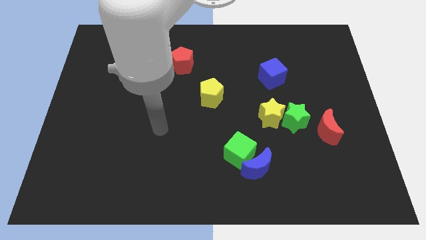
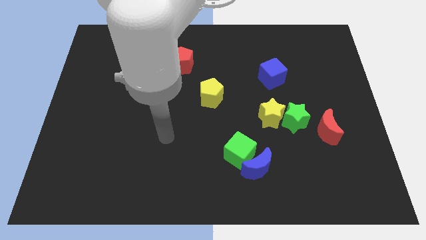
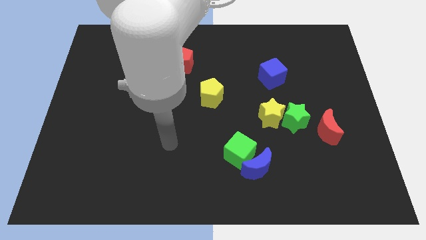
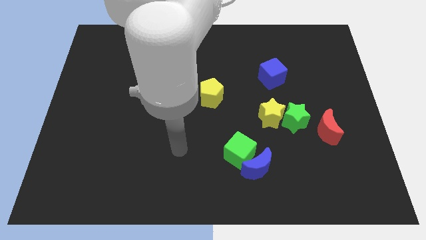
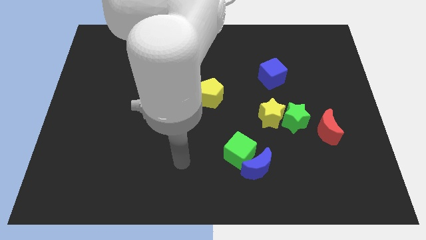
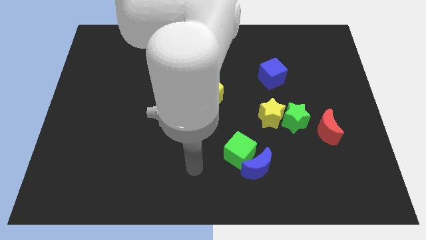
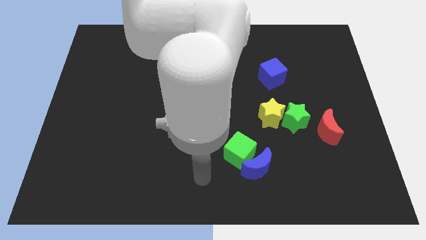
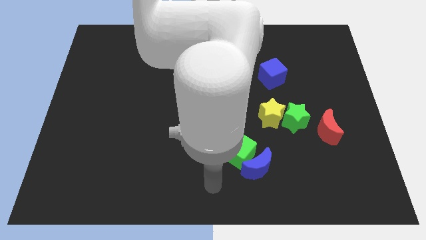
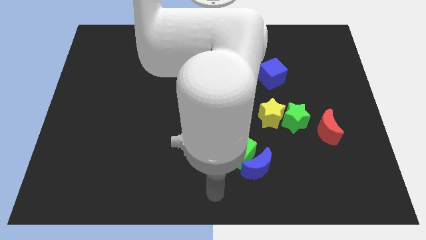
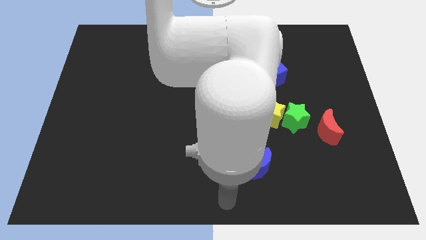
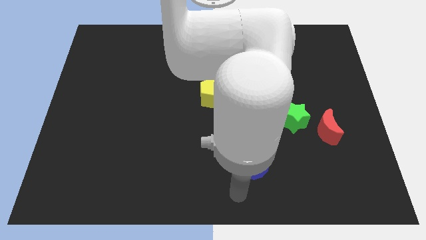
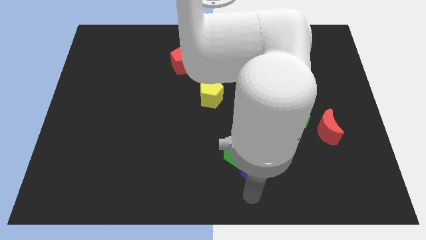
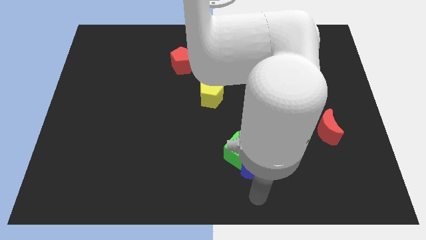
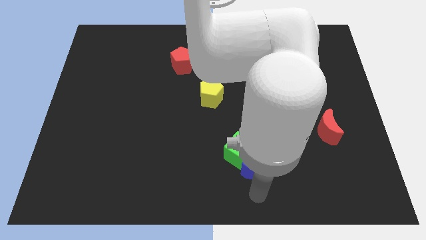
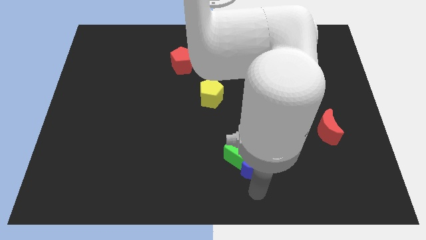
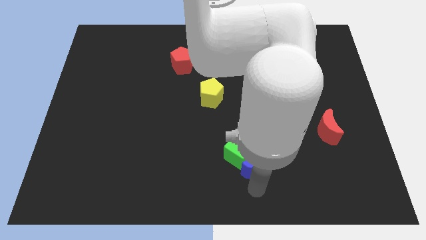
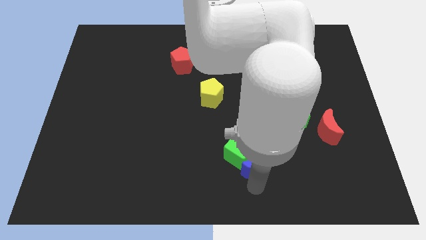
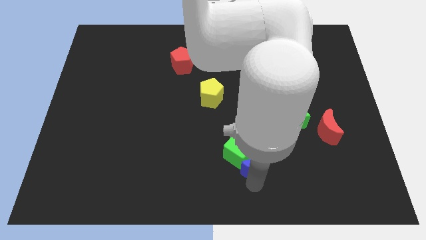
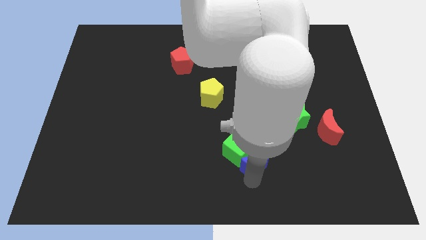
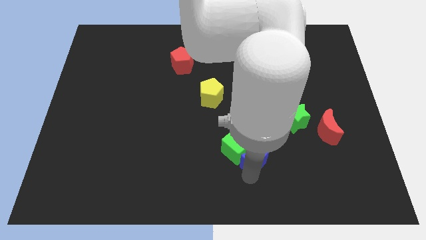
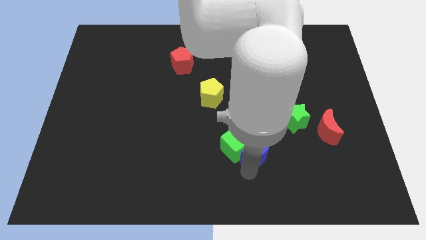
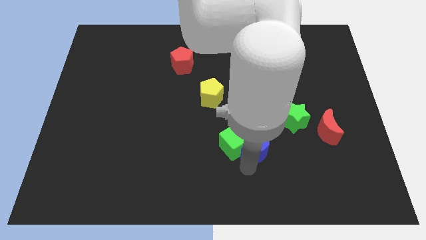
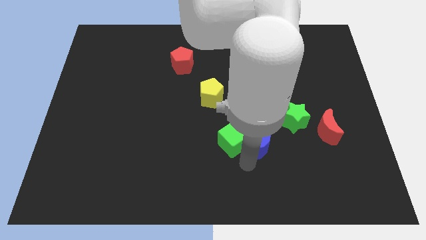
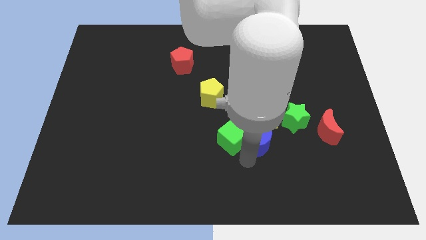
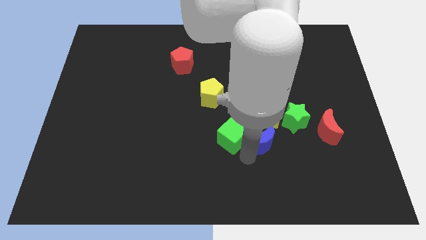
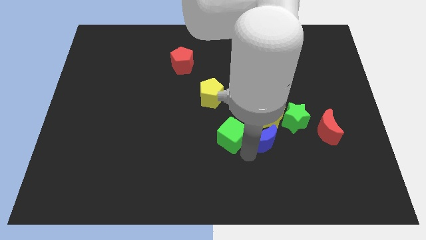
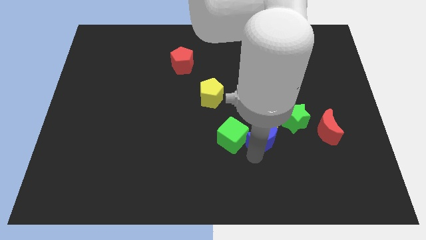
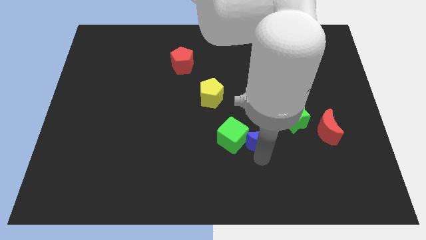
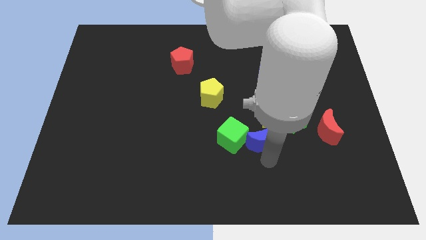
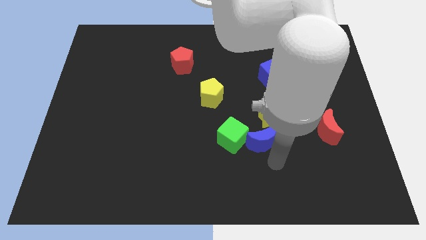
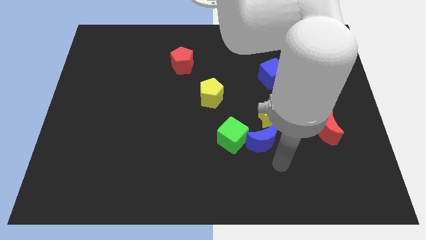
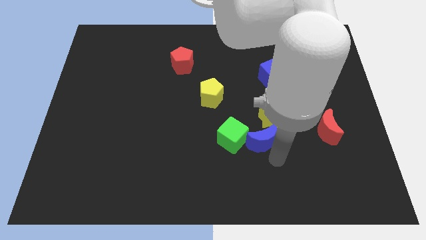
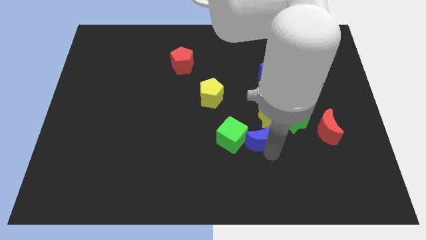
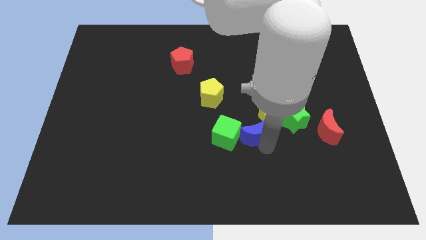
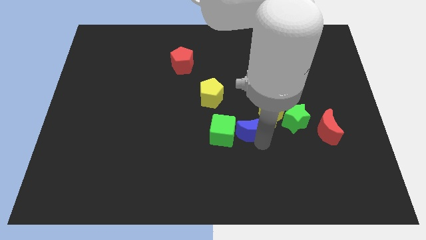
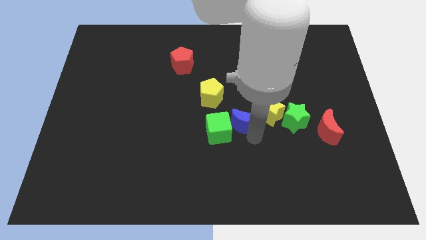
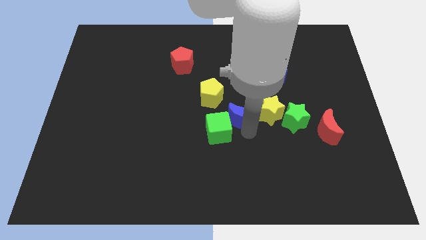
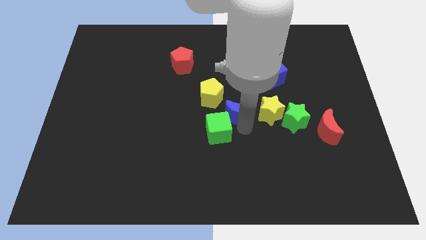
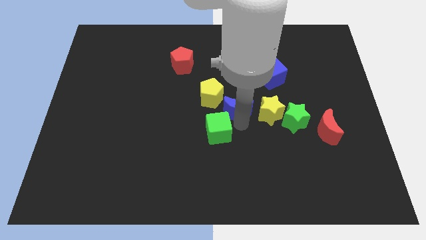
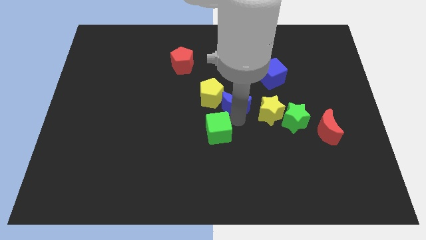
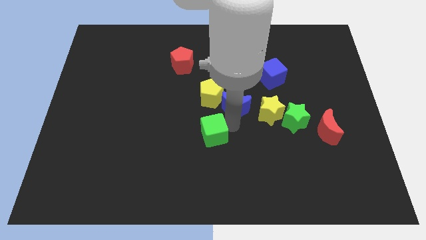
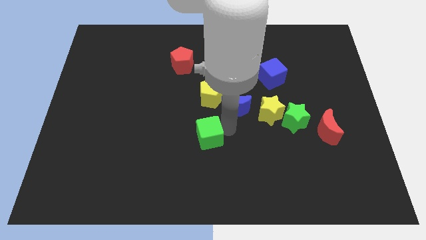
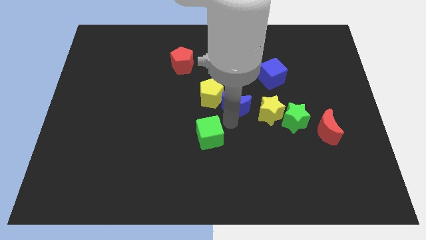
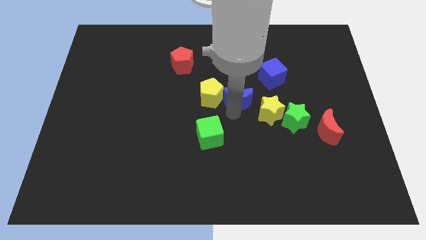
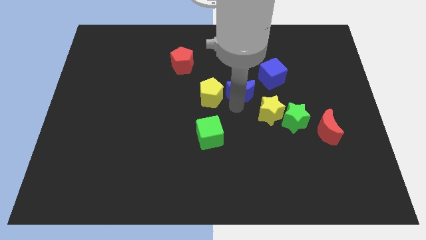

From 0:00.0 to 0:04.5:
slide the blue moon upwards

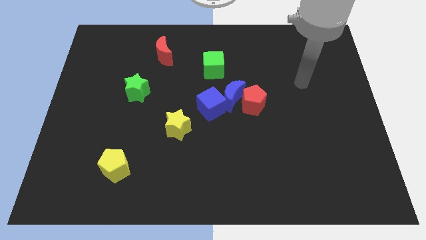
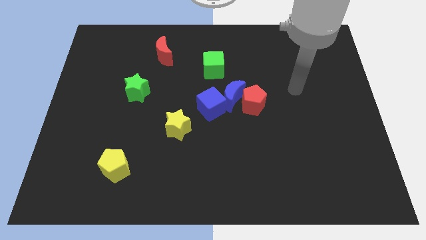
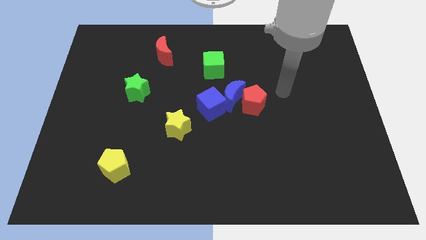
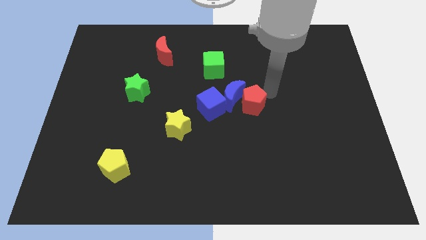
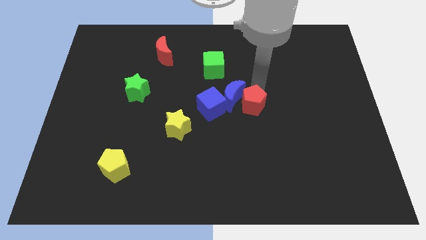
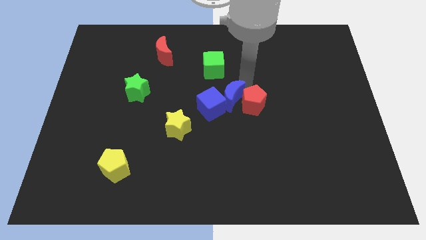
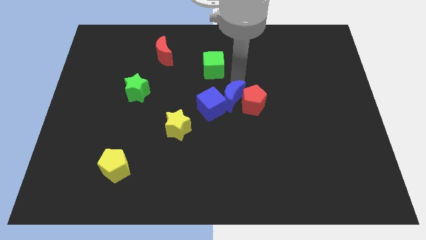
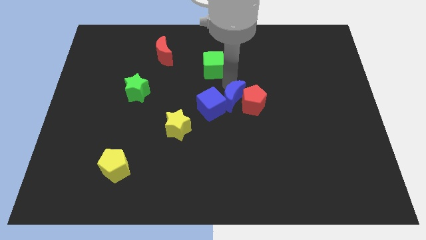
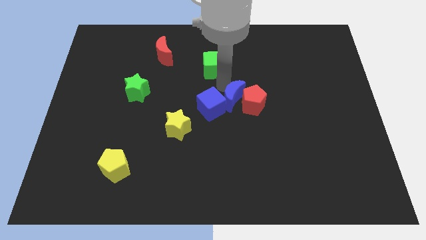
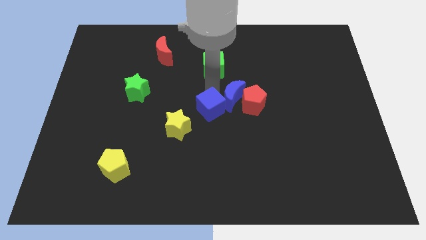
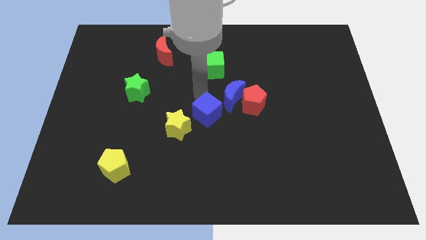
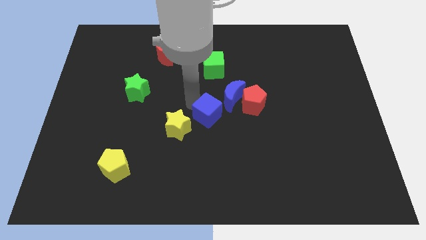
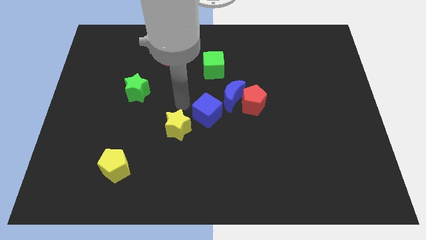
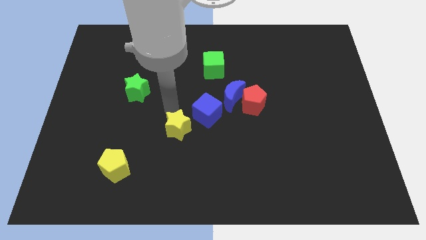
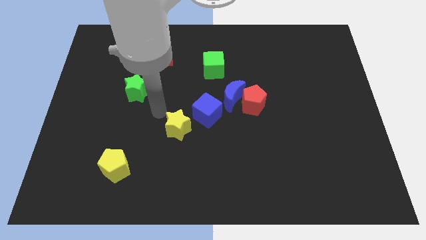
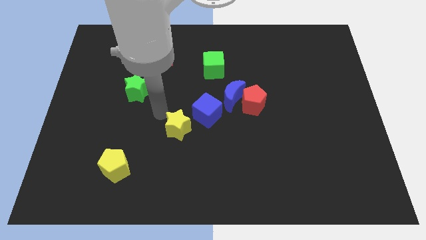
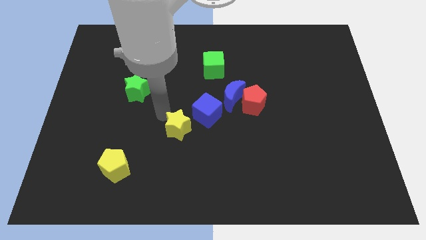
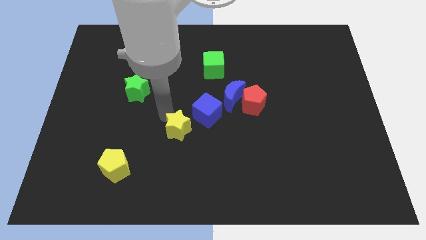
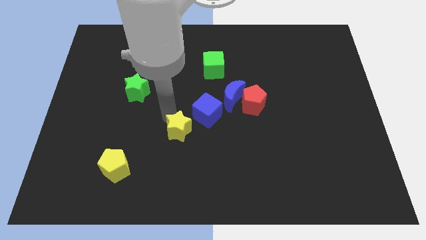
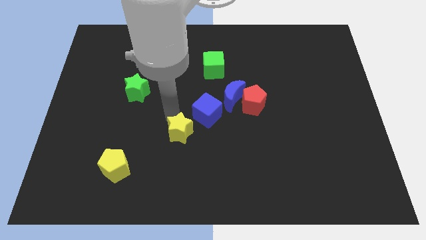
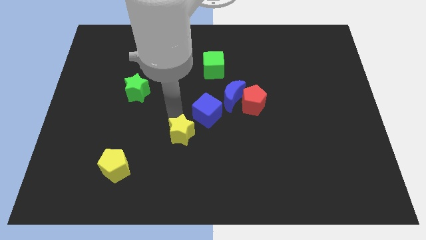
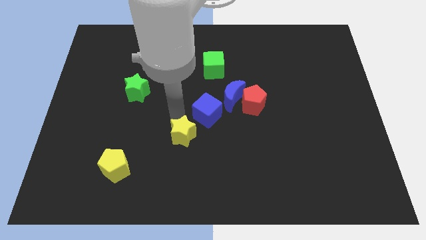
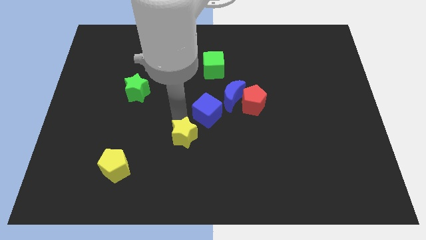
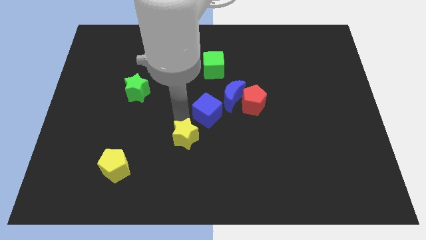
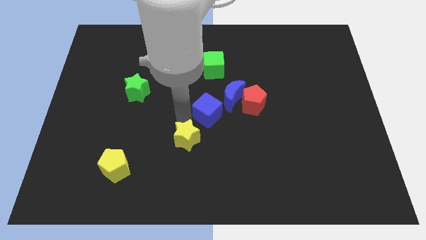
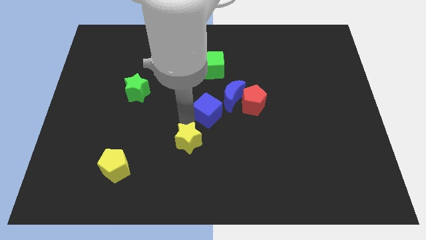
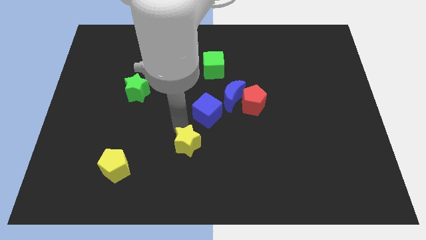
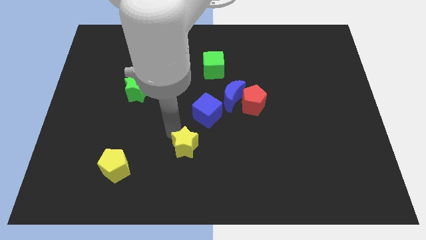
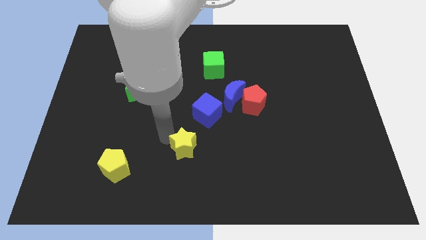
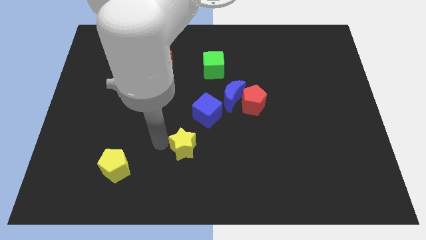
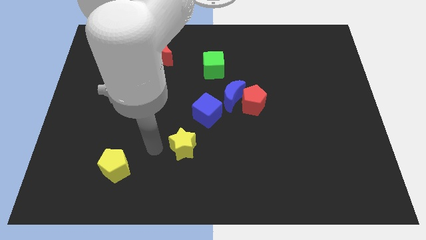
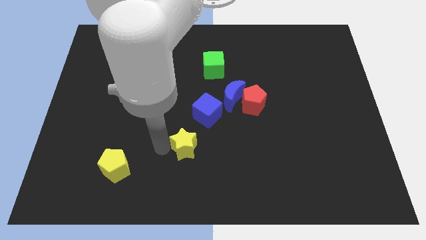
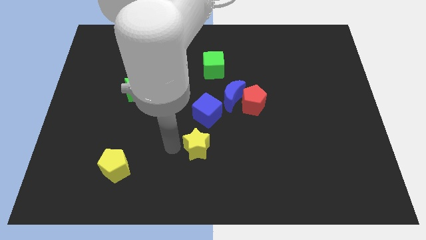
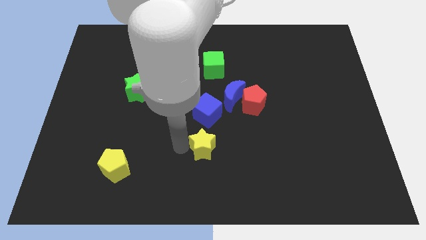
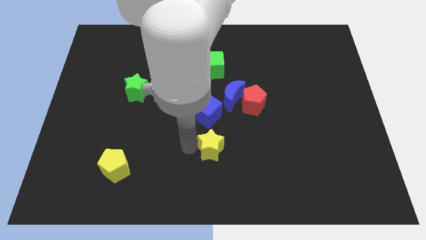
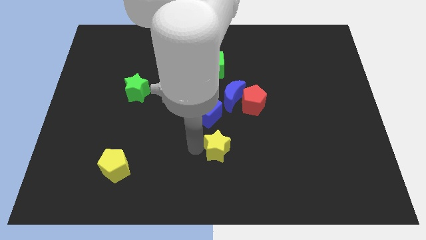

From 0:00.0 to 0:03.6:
slightly push the yellow star to the right

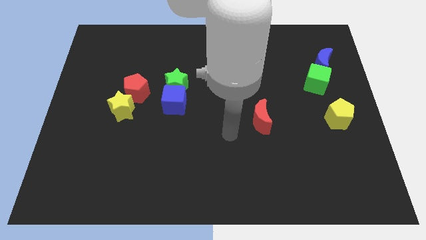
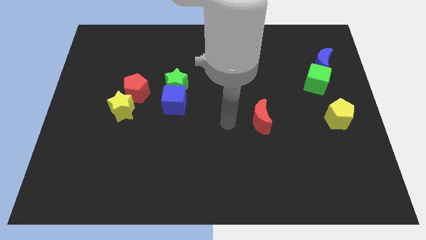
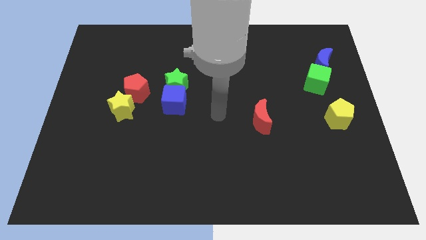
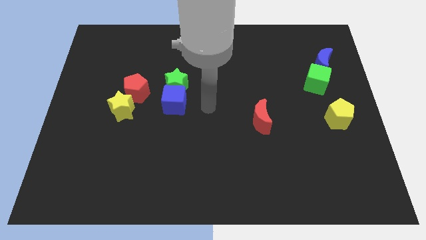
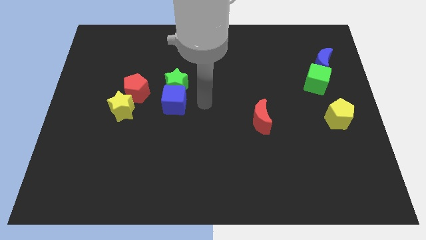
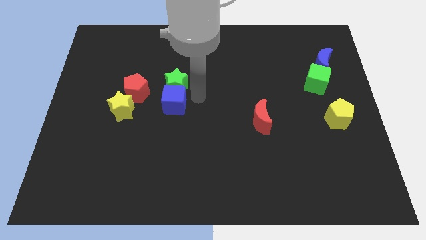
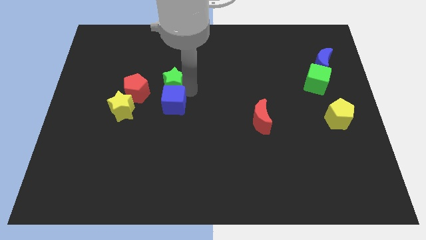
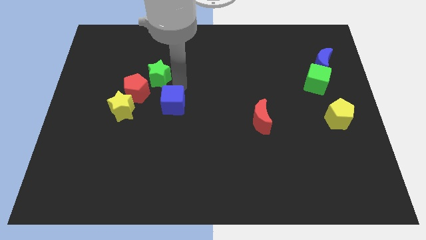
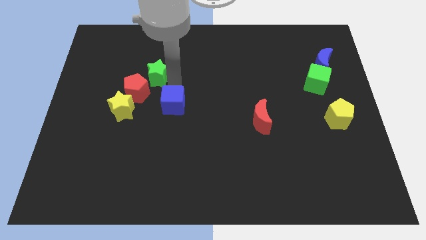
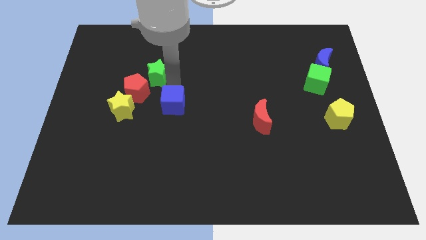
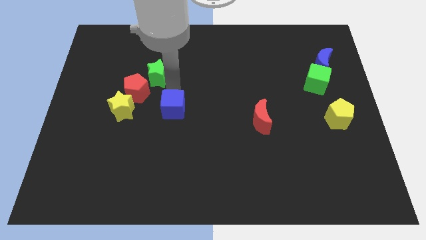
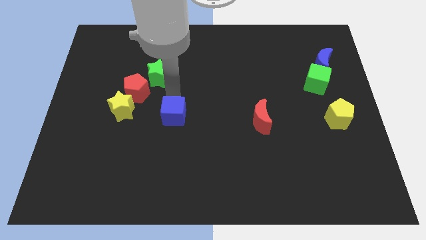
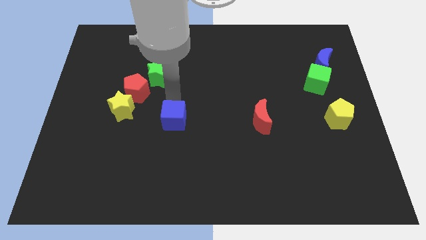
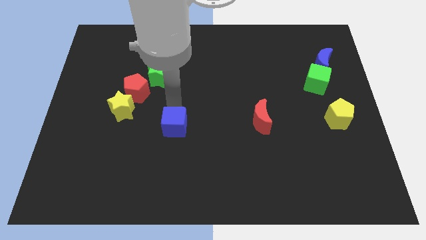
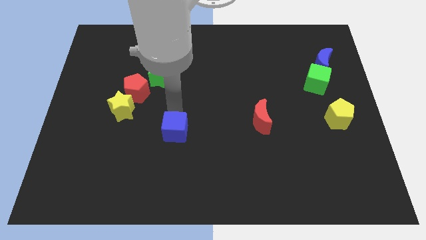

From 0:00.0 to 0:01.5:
slide the blue cube down somewhat
